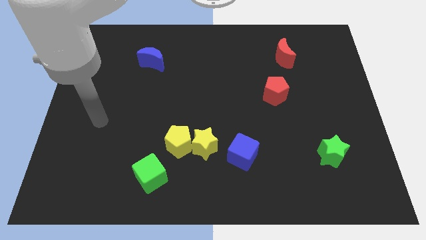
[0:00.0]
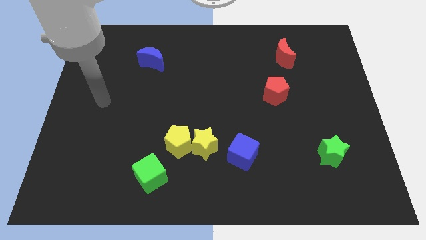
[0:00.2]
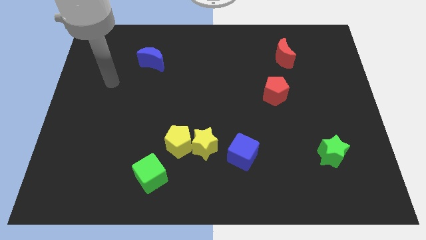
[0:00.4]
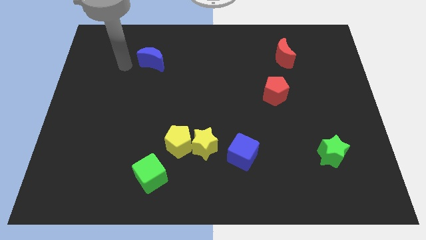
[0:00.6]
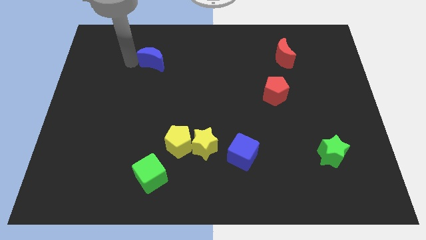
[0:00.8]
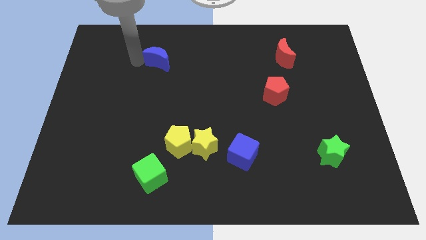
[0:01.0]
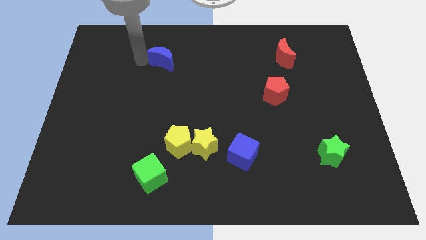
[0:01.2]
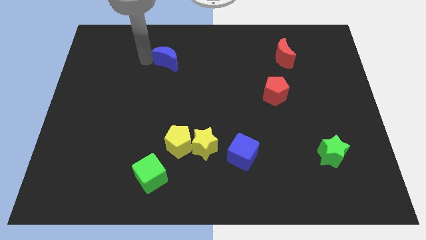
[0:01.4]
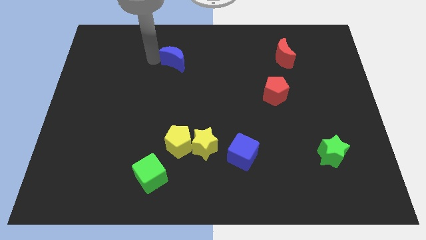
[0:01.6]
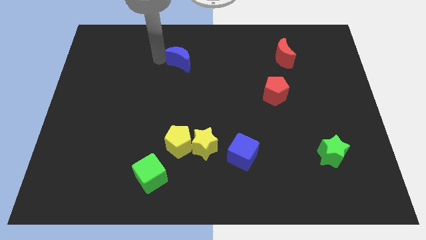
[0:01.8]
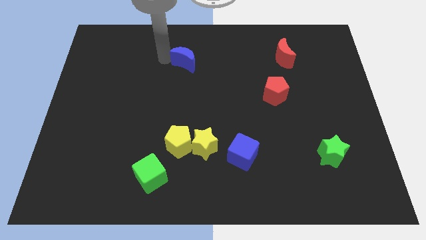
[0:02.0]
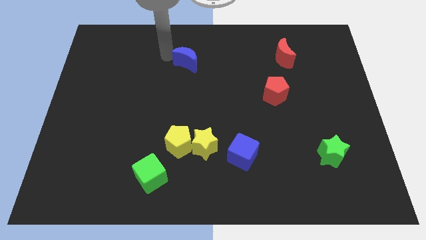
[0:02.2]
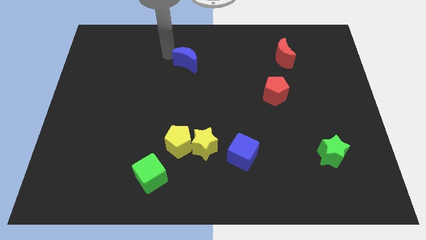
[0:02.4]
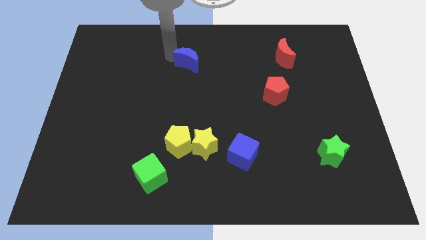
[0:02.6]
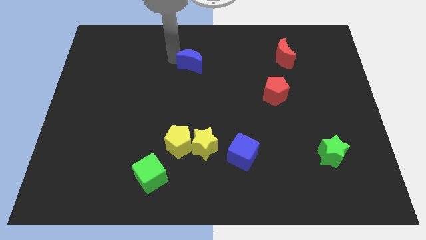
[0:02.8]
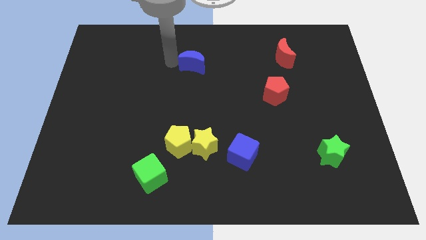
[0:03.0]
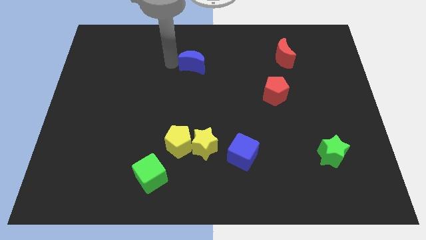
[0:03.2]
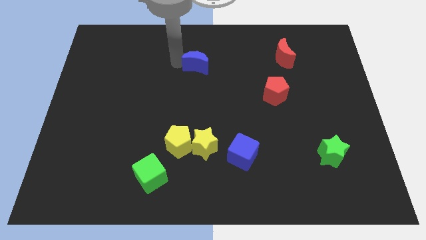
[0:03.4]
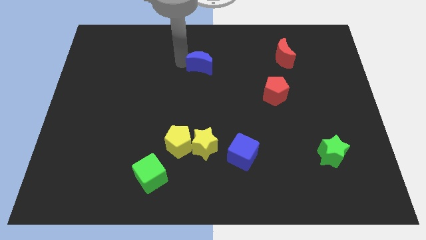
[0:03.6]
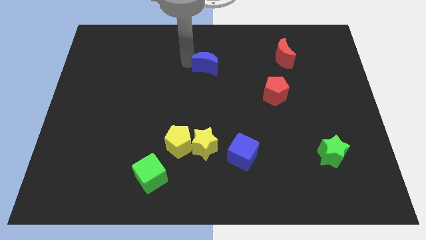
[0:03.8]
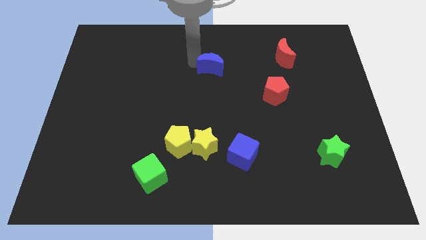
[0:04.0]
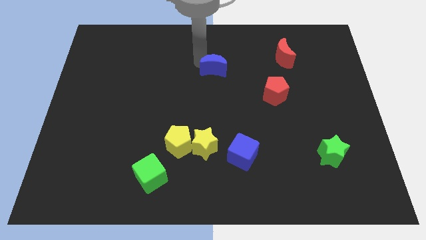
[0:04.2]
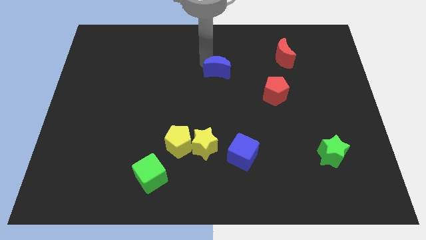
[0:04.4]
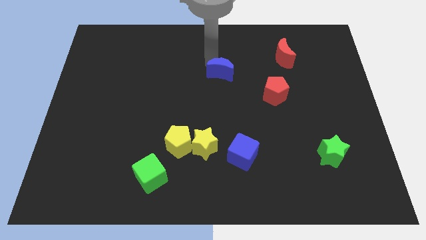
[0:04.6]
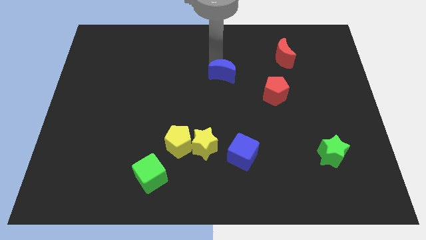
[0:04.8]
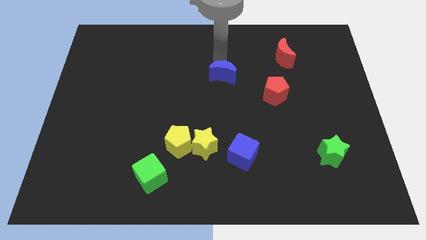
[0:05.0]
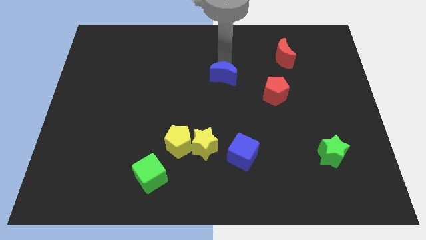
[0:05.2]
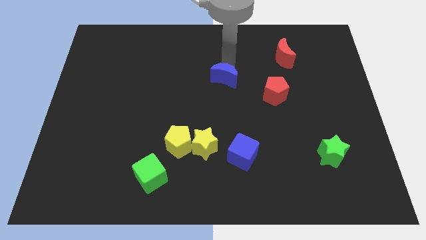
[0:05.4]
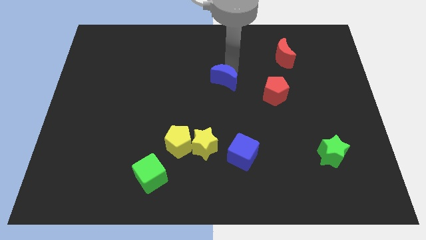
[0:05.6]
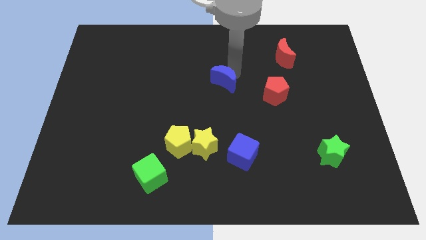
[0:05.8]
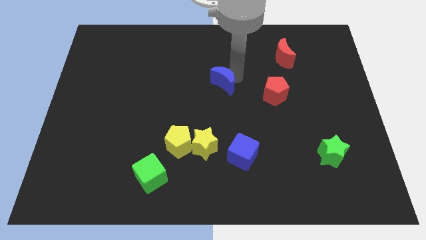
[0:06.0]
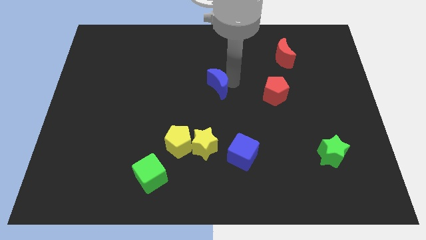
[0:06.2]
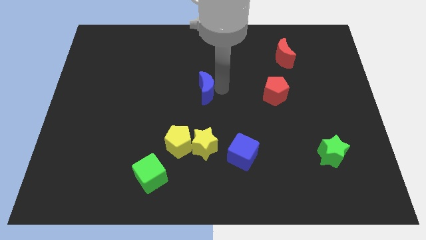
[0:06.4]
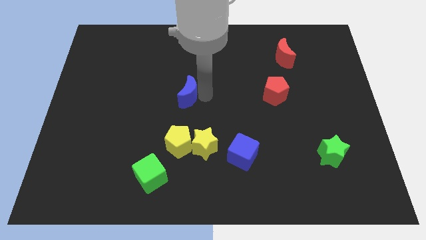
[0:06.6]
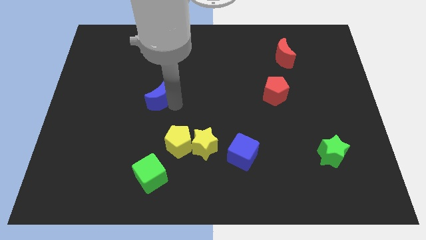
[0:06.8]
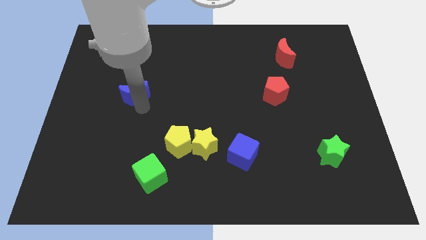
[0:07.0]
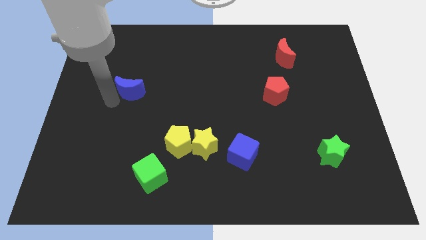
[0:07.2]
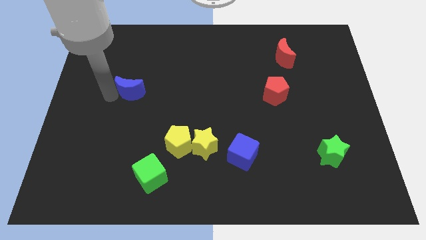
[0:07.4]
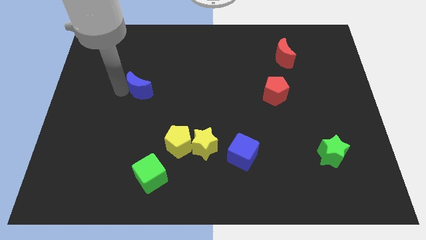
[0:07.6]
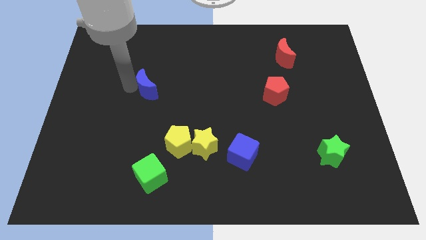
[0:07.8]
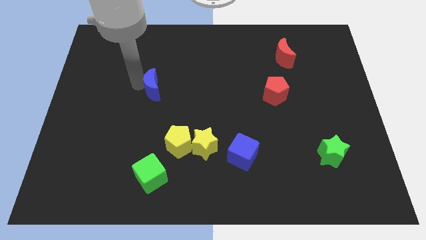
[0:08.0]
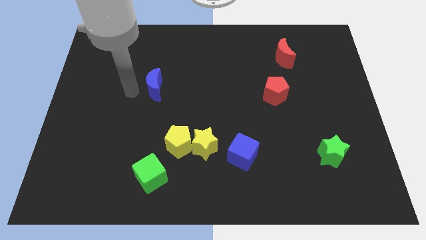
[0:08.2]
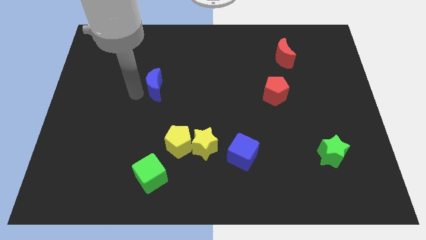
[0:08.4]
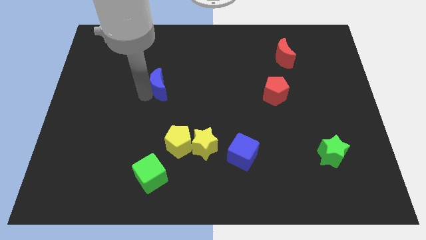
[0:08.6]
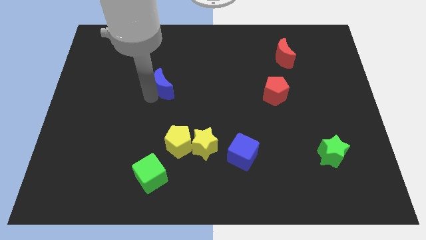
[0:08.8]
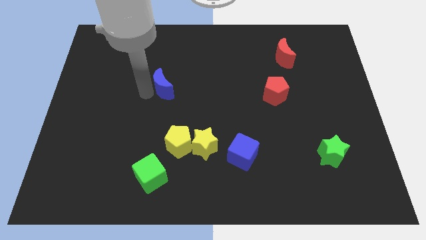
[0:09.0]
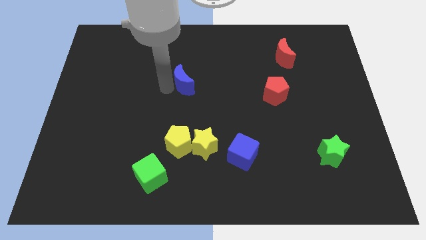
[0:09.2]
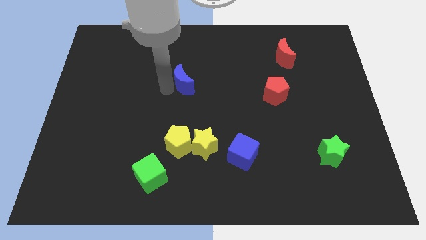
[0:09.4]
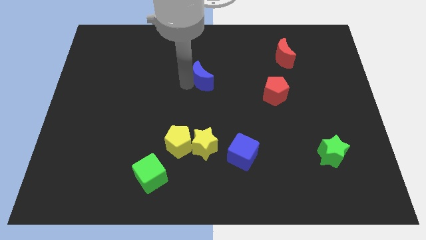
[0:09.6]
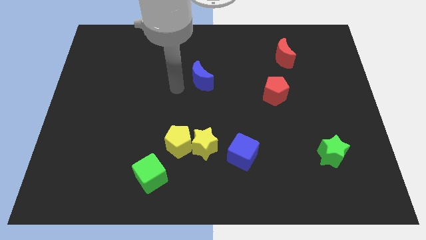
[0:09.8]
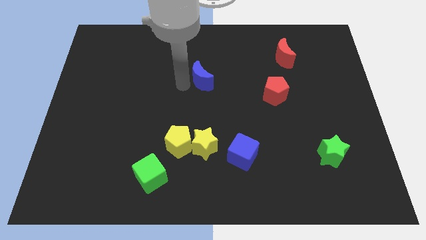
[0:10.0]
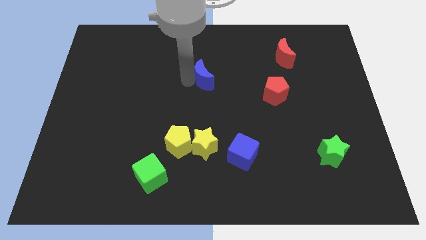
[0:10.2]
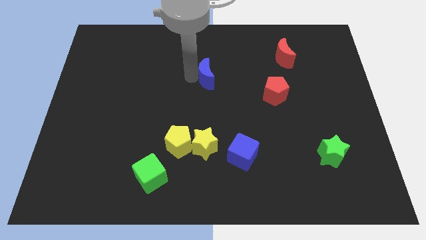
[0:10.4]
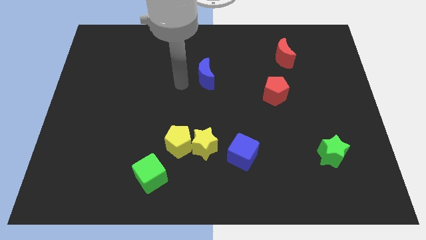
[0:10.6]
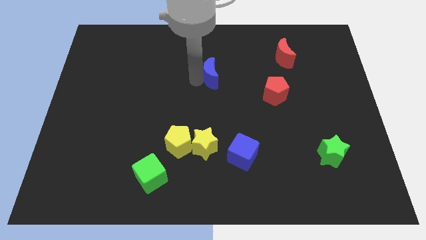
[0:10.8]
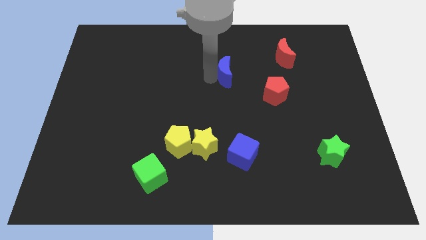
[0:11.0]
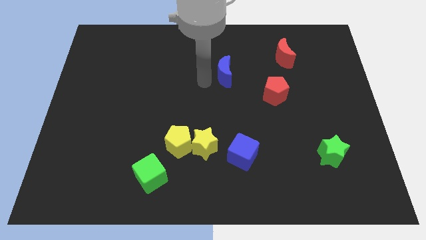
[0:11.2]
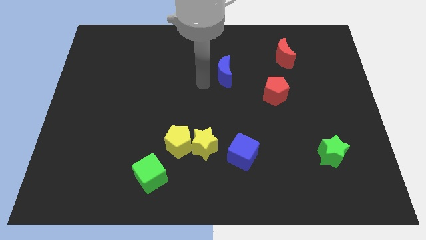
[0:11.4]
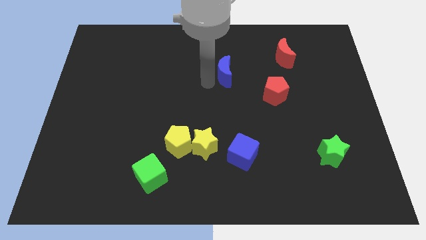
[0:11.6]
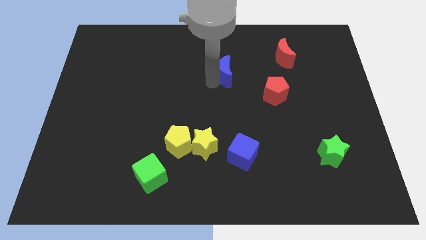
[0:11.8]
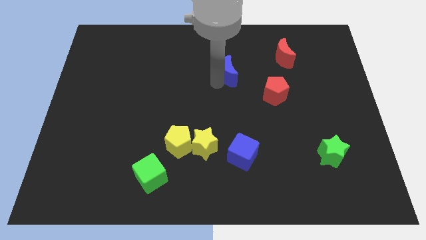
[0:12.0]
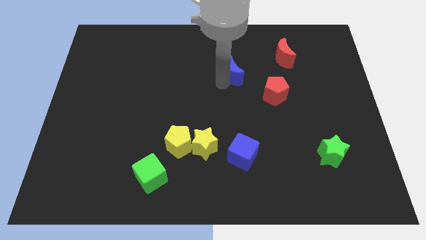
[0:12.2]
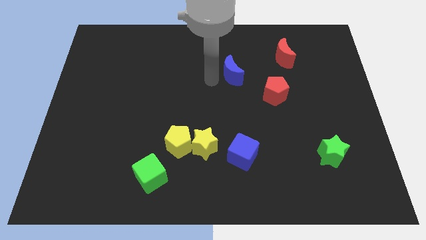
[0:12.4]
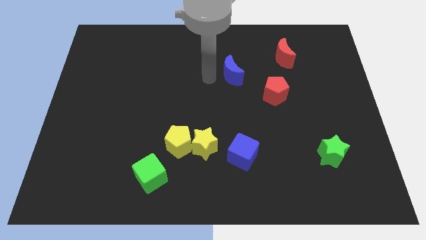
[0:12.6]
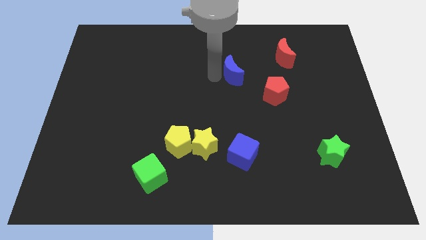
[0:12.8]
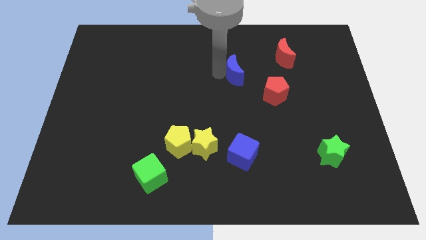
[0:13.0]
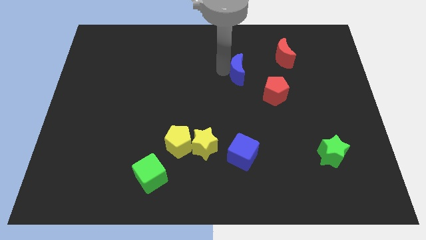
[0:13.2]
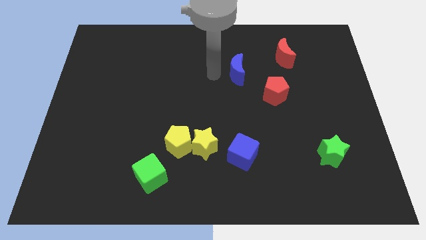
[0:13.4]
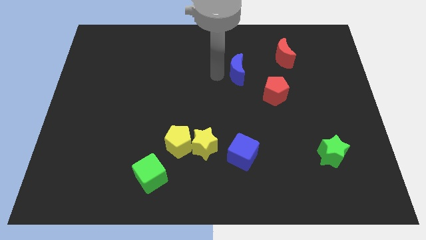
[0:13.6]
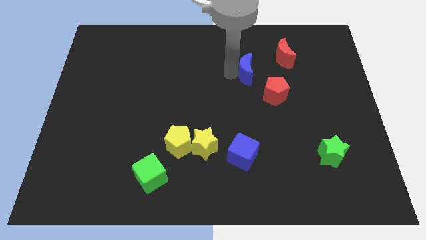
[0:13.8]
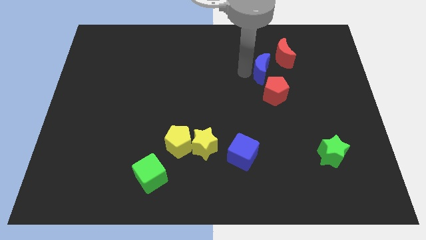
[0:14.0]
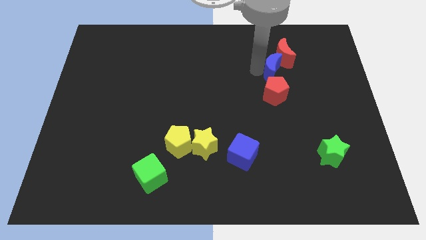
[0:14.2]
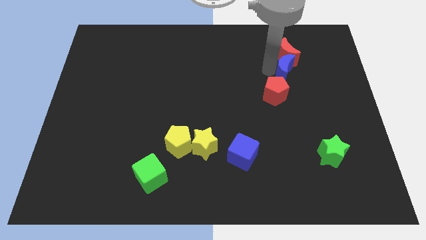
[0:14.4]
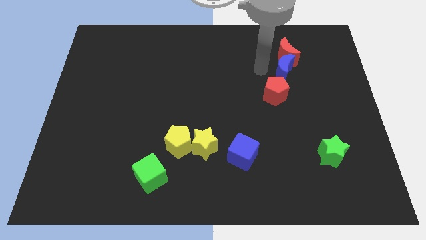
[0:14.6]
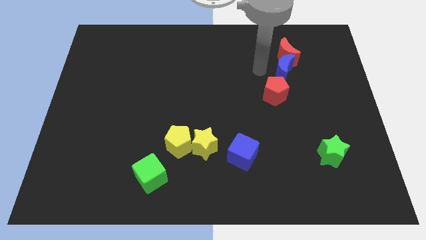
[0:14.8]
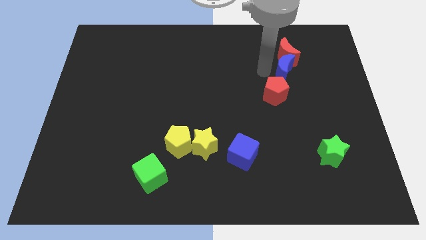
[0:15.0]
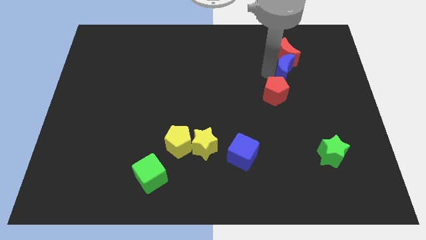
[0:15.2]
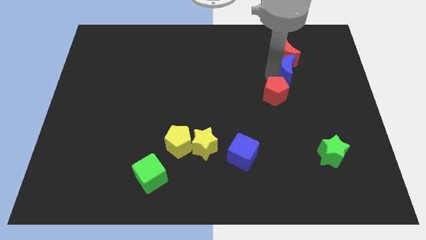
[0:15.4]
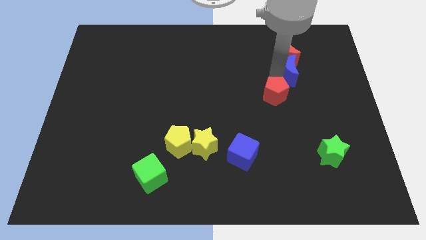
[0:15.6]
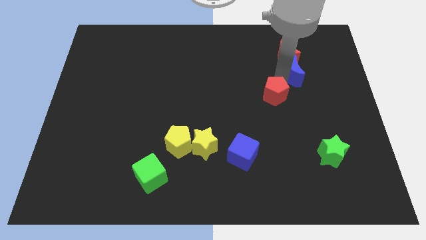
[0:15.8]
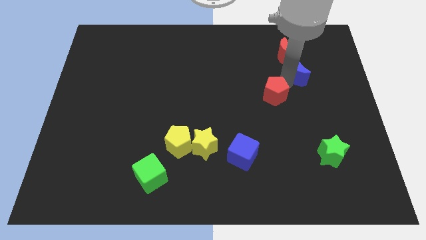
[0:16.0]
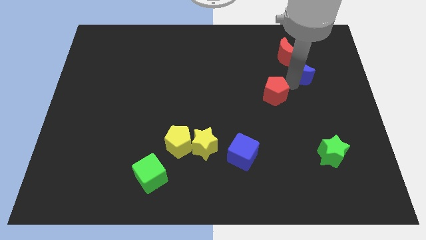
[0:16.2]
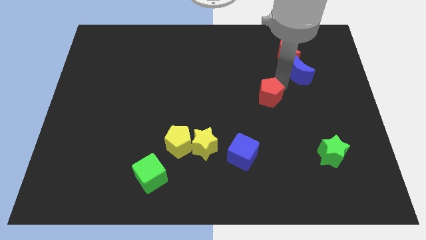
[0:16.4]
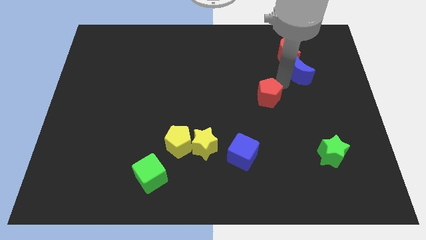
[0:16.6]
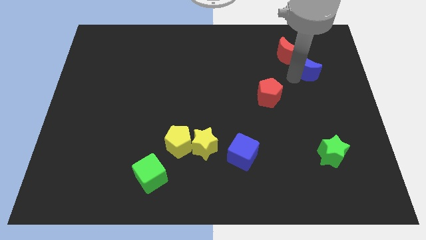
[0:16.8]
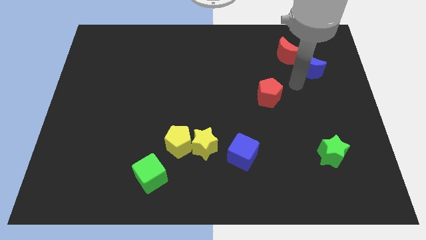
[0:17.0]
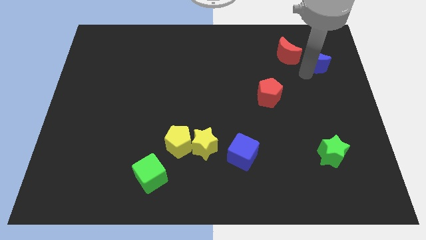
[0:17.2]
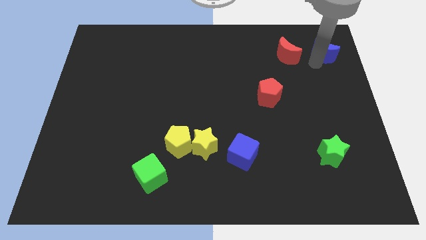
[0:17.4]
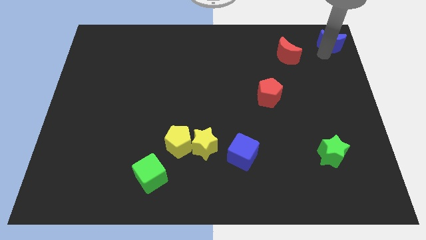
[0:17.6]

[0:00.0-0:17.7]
slide the blue moon to the top right corner
